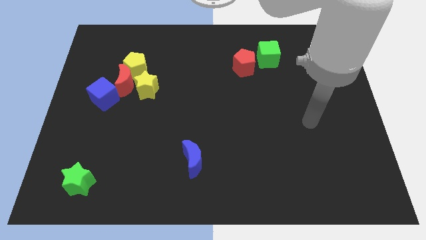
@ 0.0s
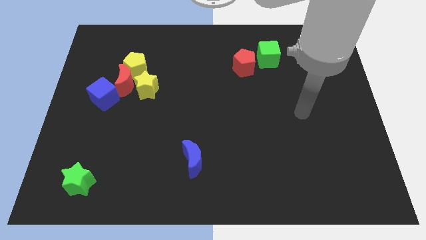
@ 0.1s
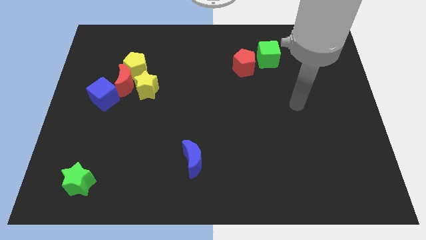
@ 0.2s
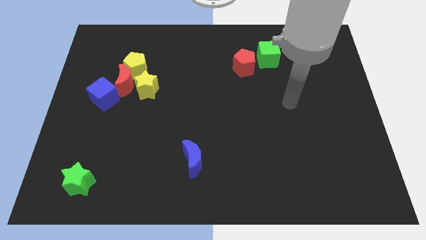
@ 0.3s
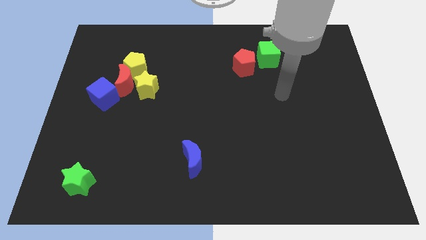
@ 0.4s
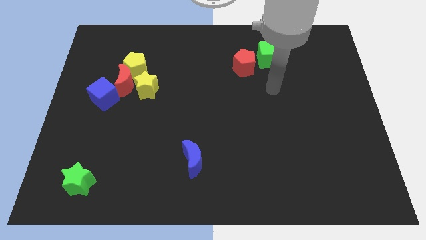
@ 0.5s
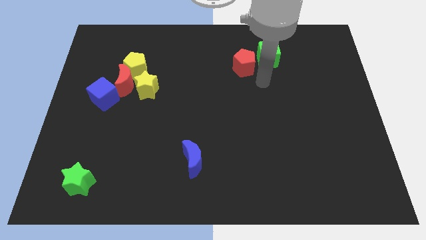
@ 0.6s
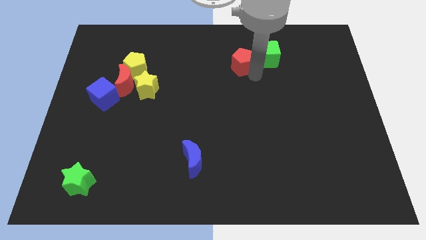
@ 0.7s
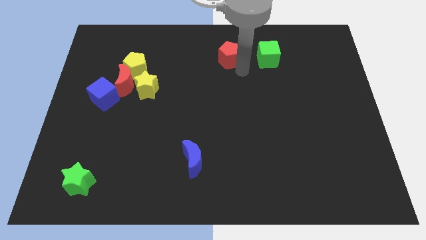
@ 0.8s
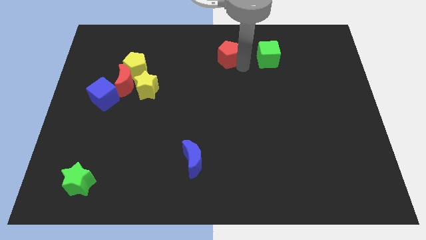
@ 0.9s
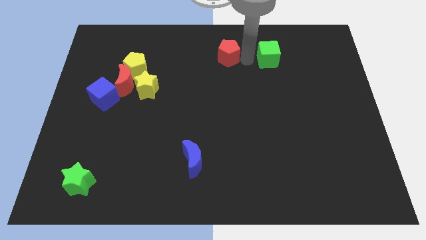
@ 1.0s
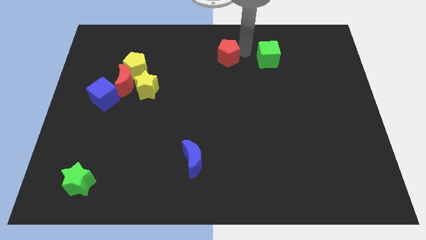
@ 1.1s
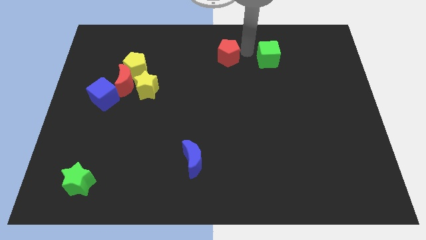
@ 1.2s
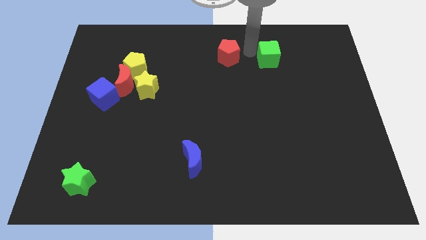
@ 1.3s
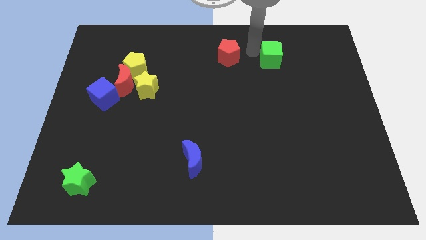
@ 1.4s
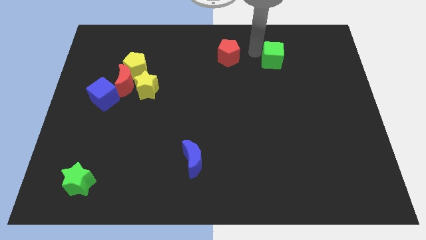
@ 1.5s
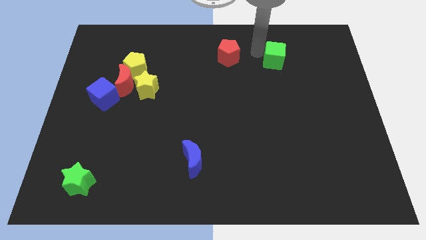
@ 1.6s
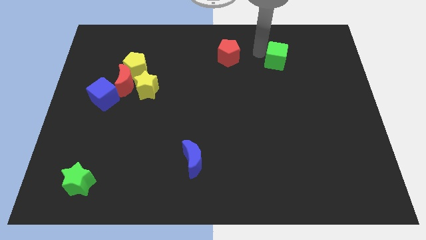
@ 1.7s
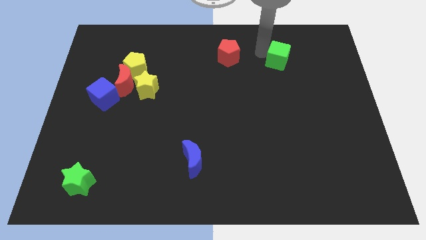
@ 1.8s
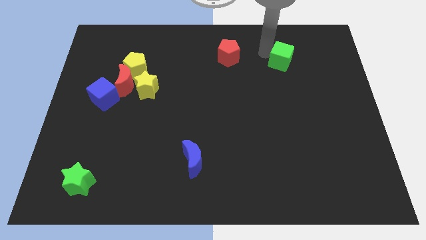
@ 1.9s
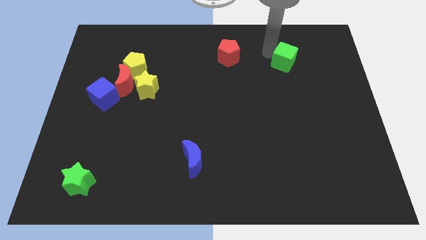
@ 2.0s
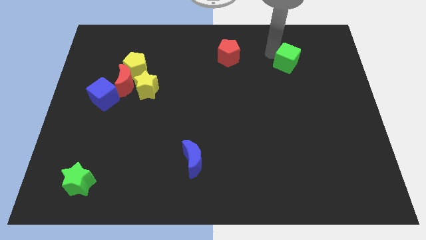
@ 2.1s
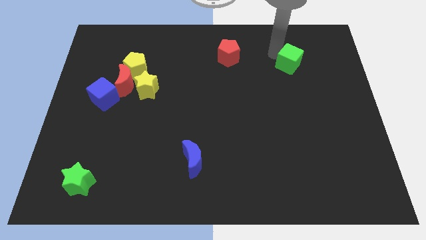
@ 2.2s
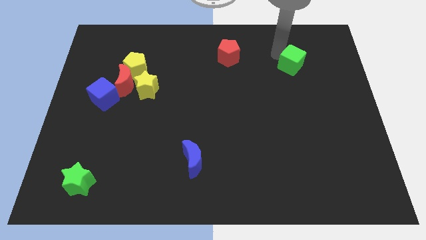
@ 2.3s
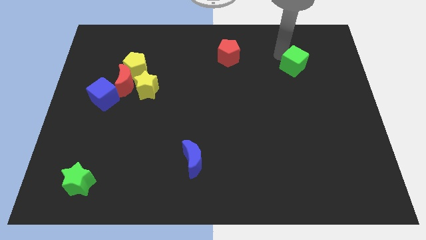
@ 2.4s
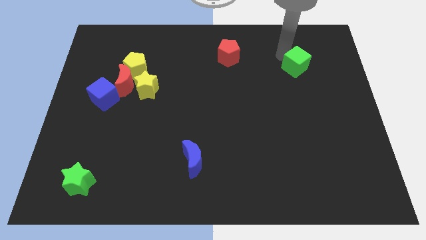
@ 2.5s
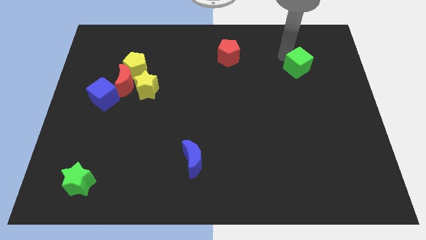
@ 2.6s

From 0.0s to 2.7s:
push the green cube a bit diagonally down and right

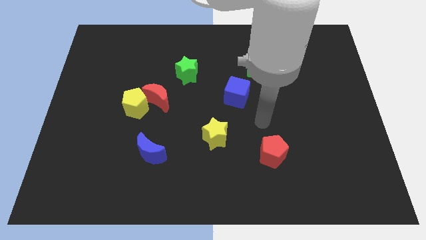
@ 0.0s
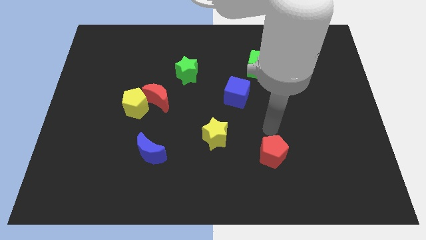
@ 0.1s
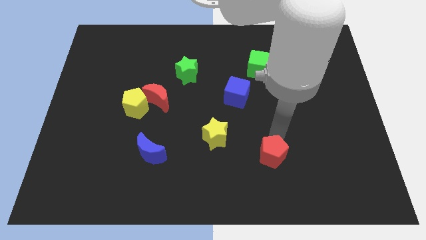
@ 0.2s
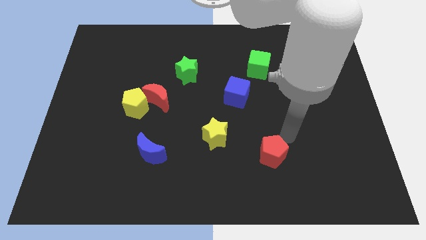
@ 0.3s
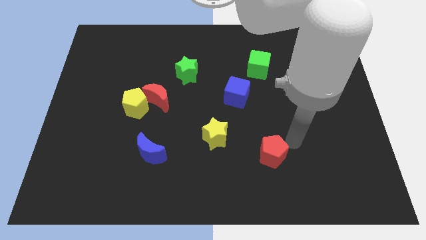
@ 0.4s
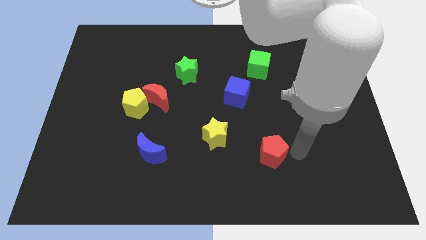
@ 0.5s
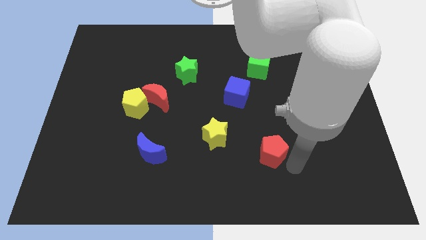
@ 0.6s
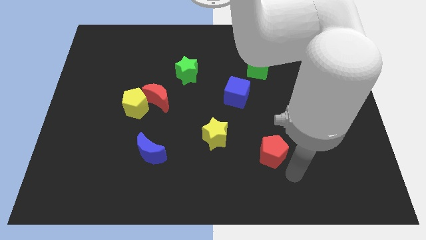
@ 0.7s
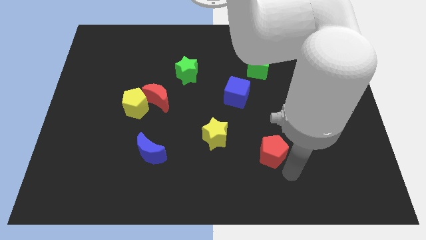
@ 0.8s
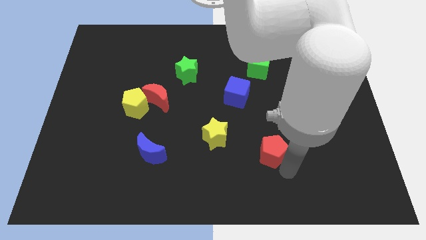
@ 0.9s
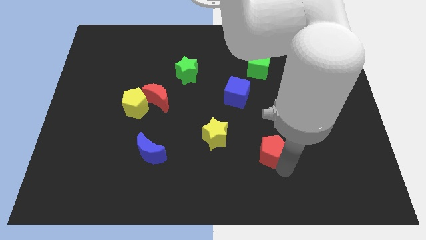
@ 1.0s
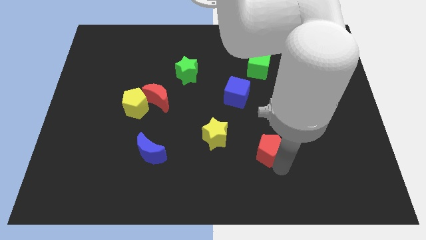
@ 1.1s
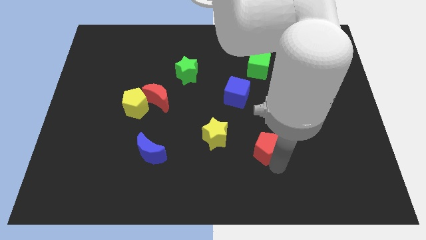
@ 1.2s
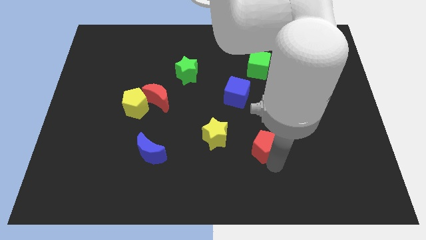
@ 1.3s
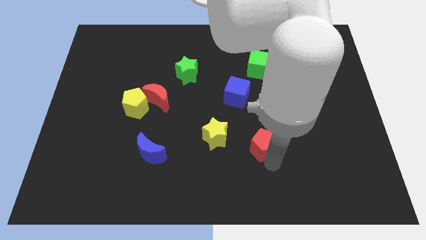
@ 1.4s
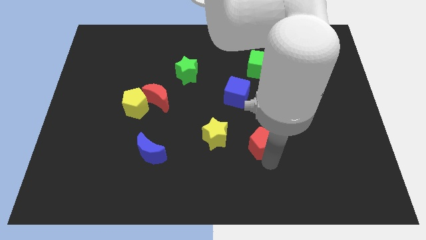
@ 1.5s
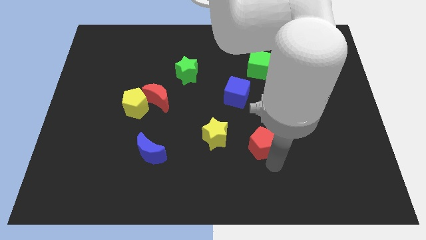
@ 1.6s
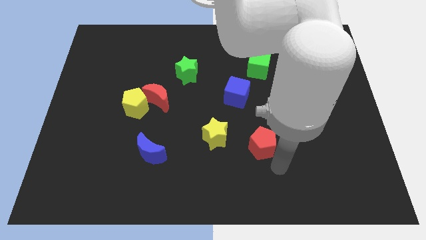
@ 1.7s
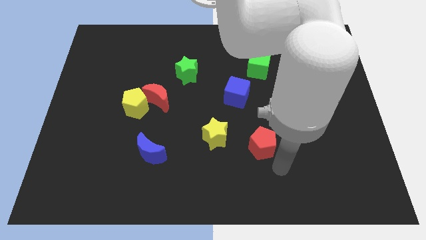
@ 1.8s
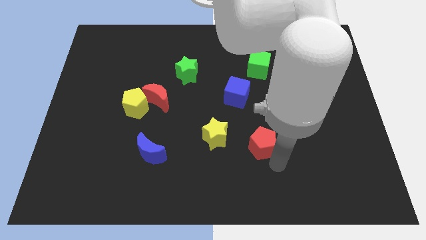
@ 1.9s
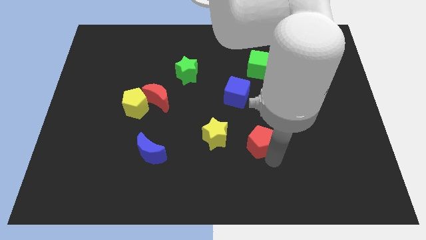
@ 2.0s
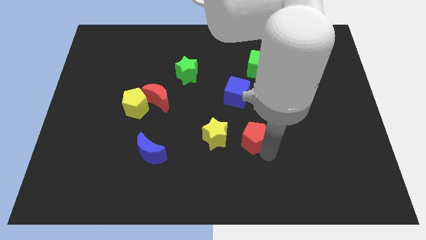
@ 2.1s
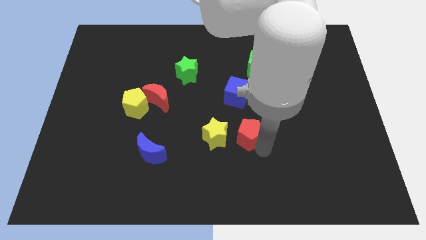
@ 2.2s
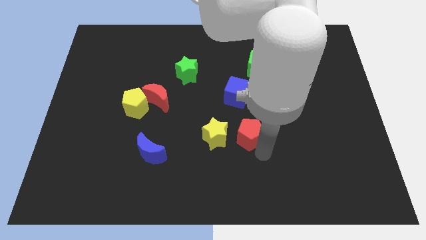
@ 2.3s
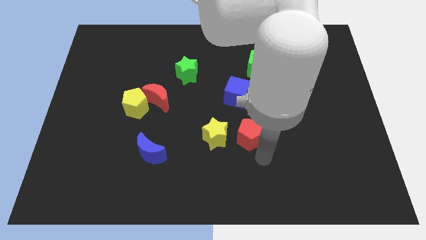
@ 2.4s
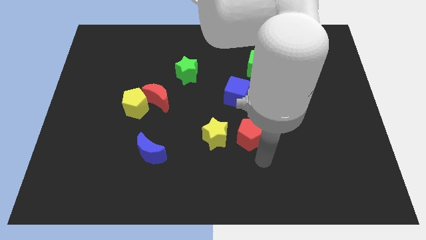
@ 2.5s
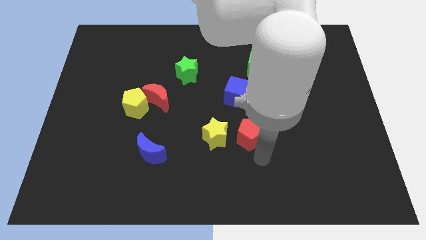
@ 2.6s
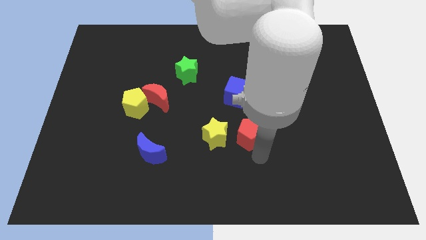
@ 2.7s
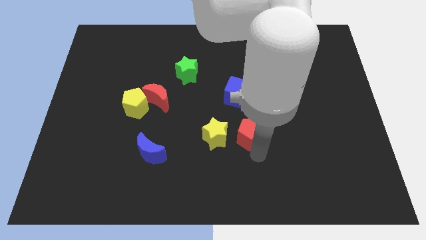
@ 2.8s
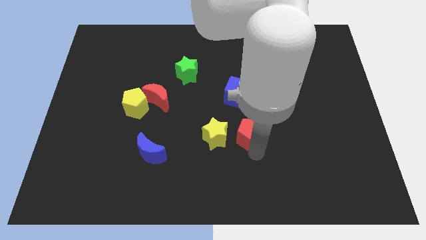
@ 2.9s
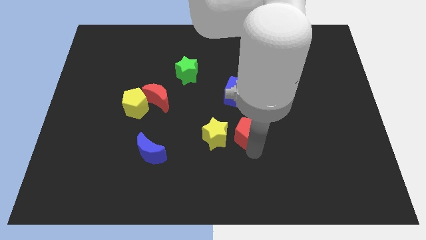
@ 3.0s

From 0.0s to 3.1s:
move the red pentagon upwards and then left a little bit

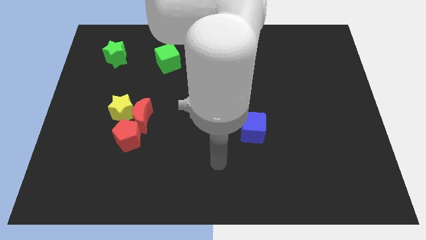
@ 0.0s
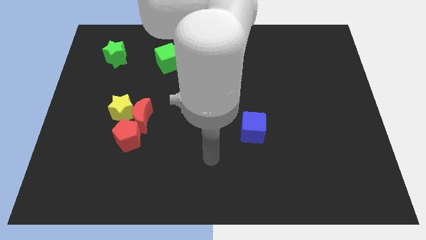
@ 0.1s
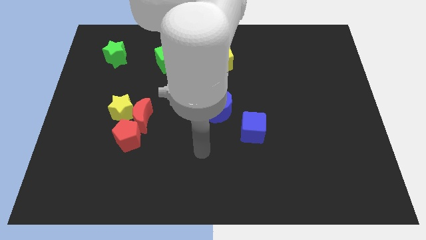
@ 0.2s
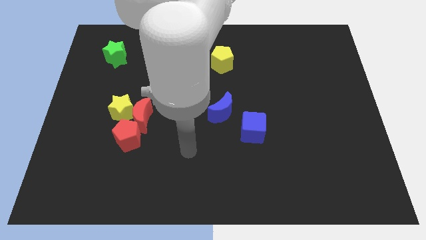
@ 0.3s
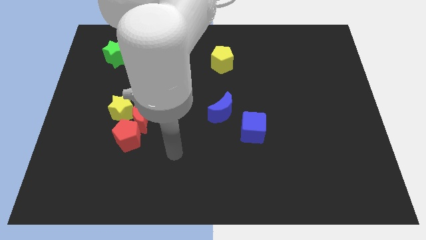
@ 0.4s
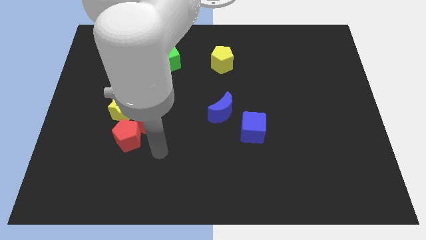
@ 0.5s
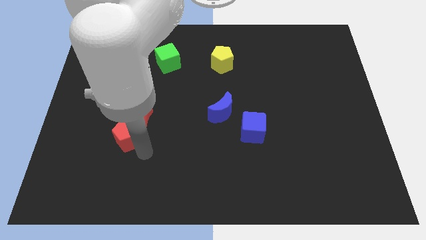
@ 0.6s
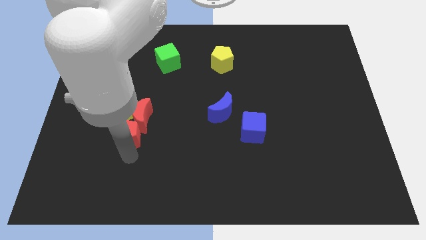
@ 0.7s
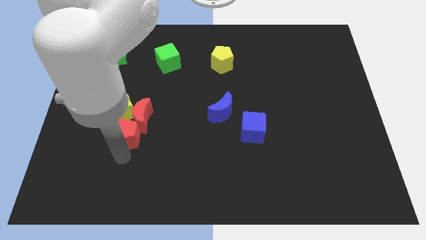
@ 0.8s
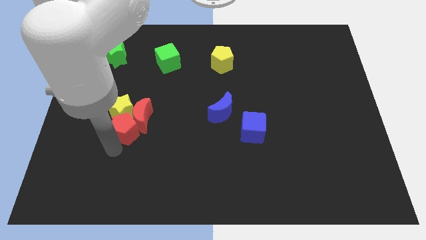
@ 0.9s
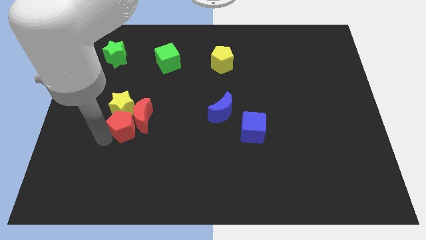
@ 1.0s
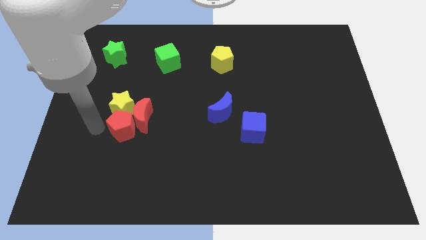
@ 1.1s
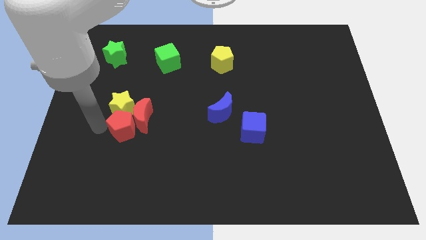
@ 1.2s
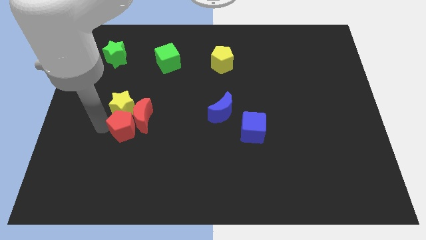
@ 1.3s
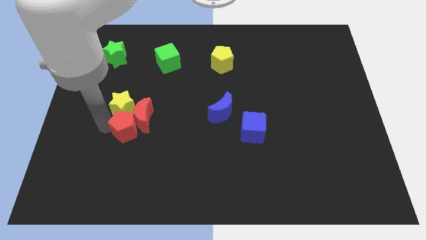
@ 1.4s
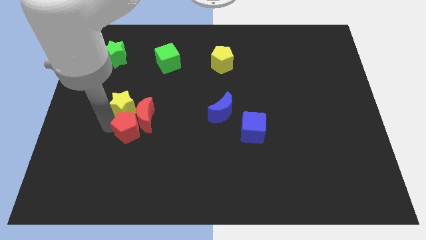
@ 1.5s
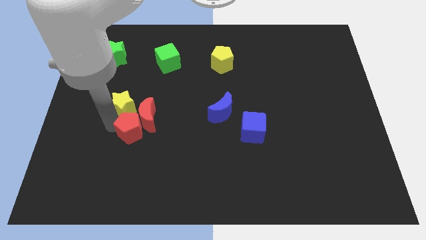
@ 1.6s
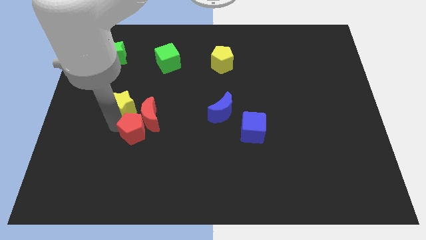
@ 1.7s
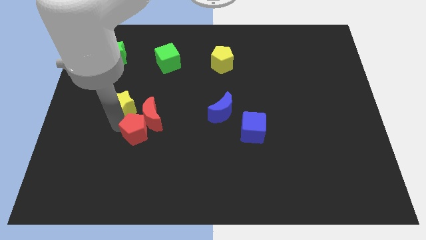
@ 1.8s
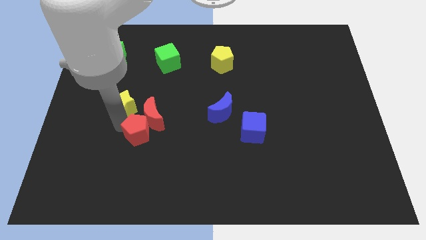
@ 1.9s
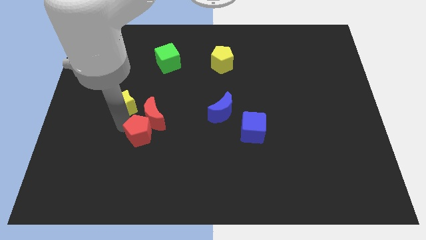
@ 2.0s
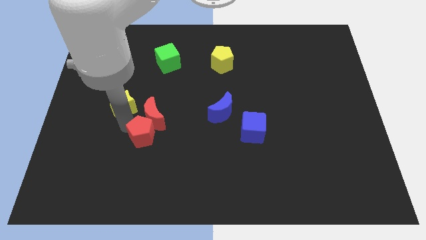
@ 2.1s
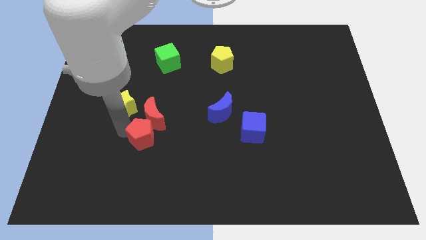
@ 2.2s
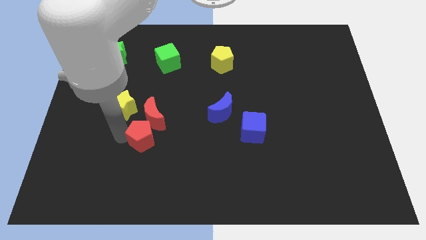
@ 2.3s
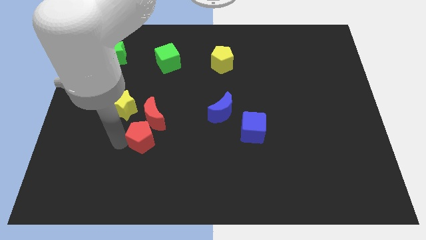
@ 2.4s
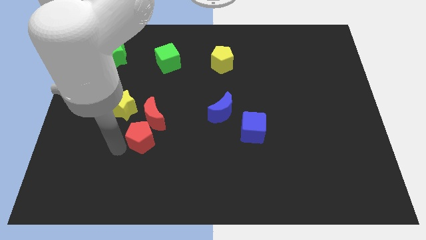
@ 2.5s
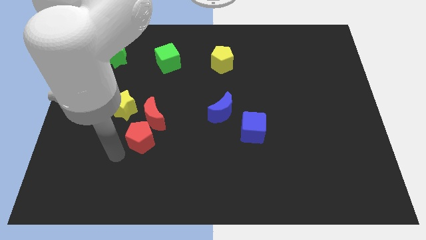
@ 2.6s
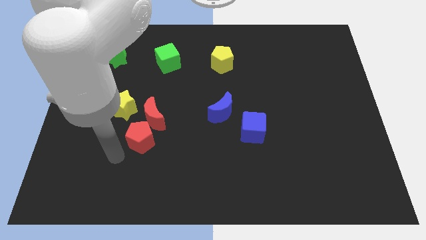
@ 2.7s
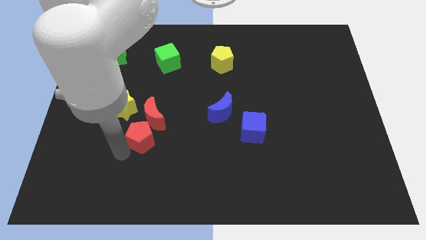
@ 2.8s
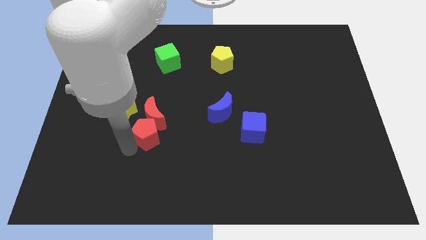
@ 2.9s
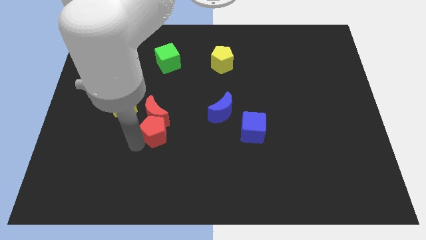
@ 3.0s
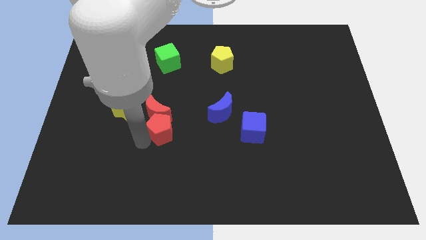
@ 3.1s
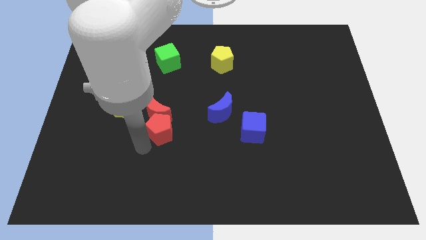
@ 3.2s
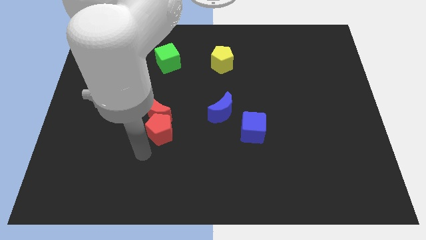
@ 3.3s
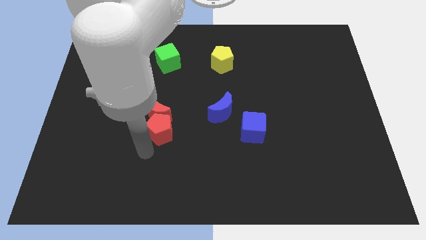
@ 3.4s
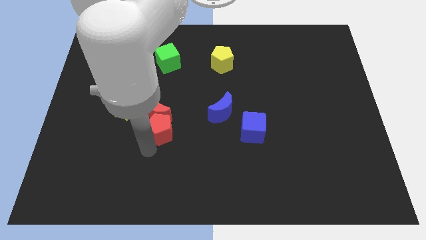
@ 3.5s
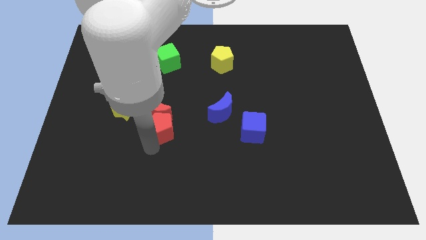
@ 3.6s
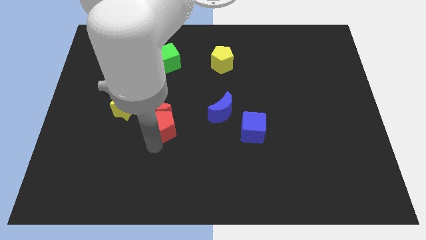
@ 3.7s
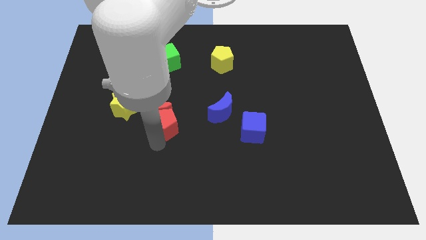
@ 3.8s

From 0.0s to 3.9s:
slightly push the red pentagon upwards and right diagonally
